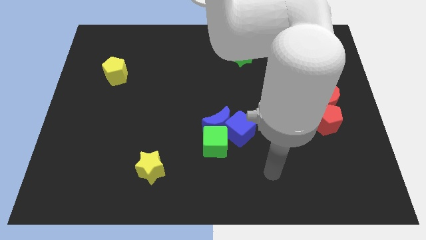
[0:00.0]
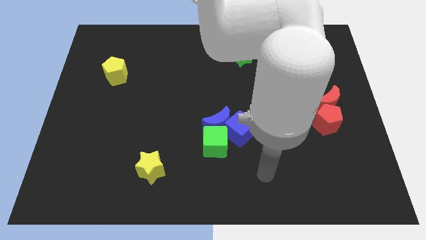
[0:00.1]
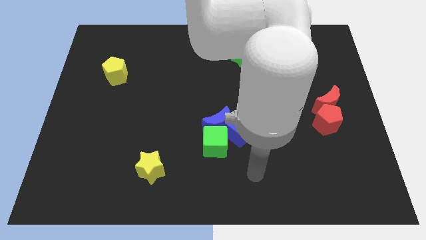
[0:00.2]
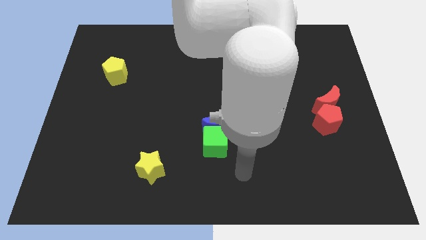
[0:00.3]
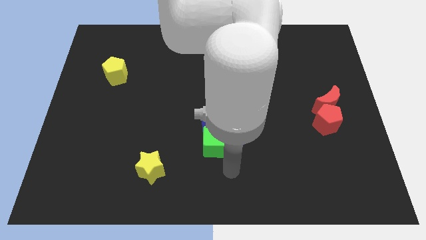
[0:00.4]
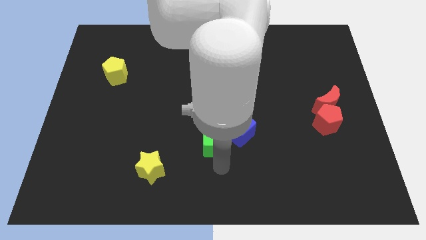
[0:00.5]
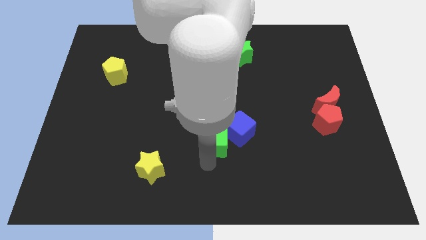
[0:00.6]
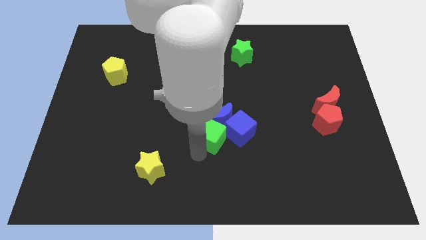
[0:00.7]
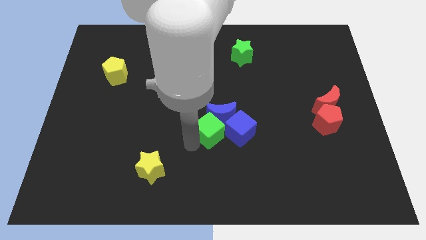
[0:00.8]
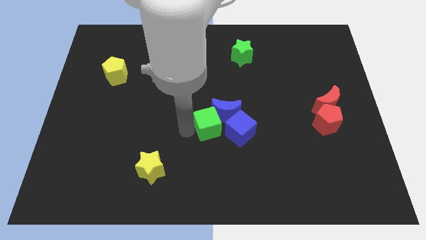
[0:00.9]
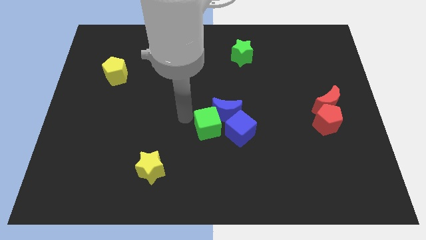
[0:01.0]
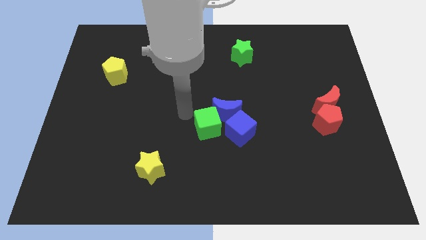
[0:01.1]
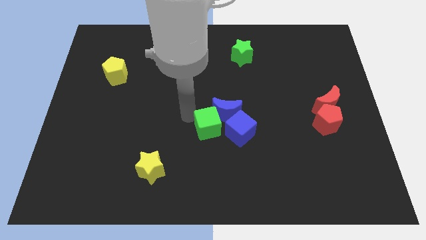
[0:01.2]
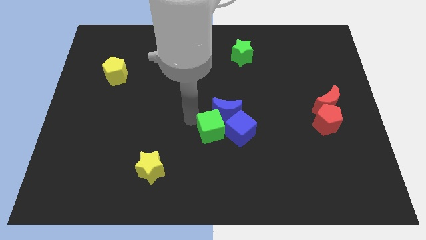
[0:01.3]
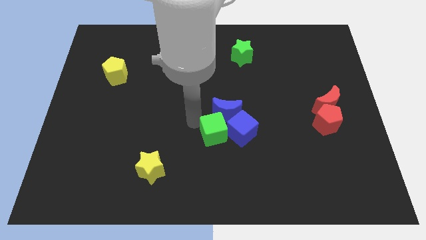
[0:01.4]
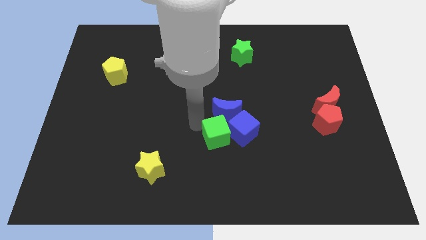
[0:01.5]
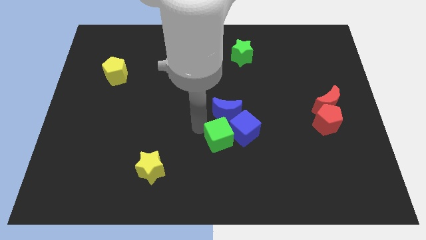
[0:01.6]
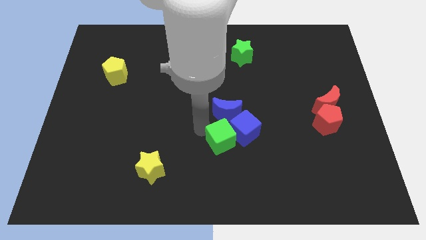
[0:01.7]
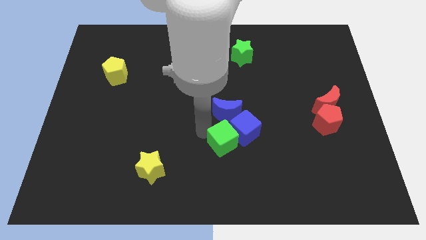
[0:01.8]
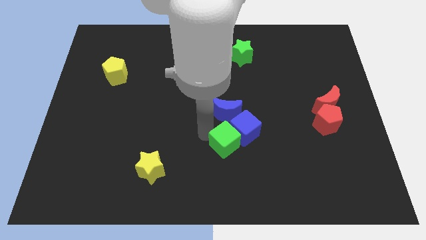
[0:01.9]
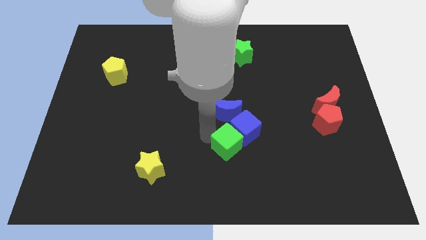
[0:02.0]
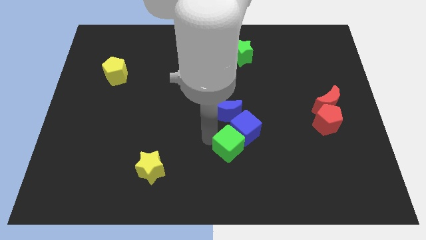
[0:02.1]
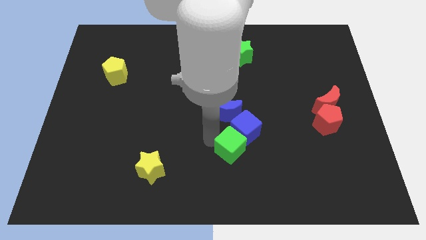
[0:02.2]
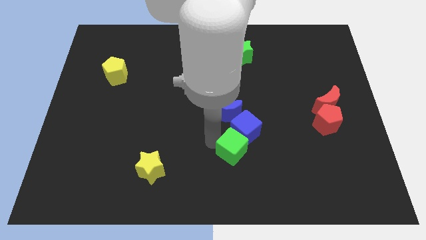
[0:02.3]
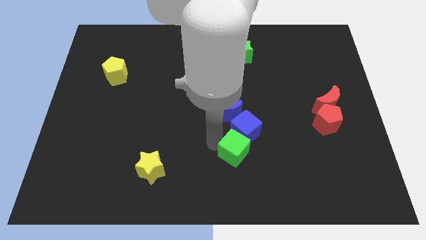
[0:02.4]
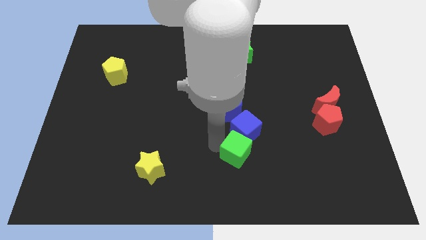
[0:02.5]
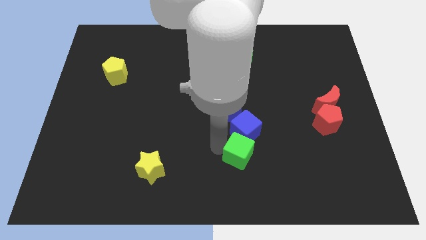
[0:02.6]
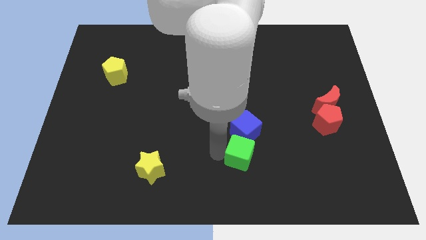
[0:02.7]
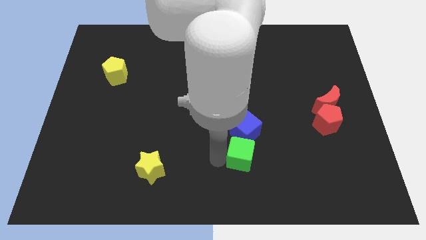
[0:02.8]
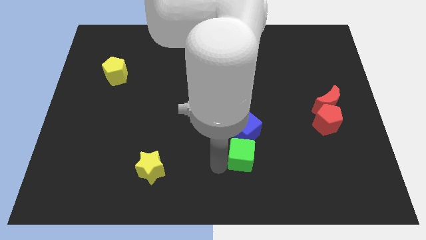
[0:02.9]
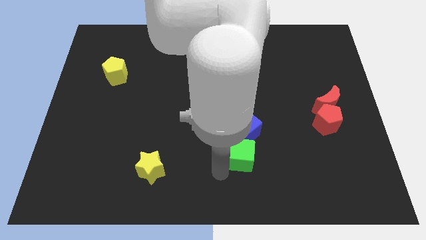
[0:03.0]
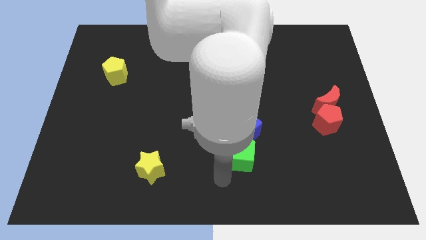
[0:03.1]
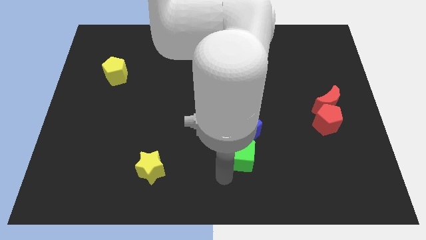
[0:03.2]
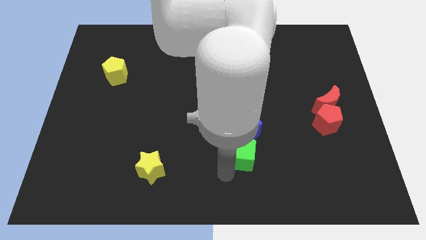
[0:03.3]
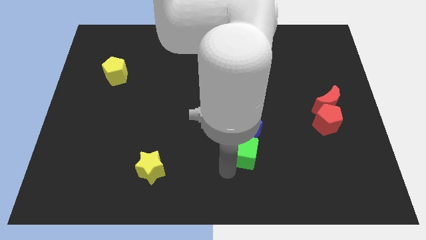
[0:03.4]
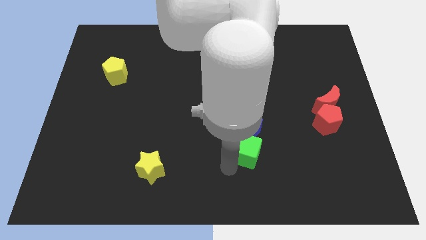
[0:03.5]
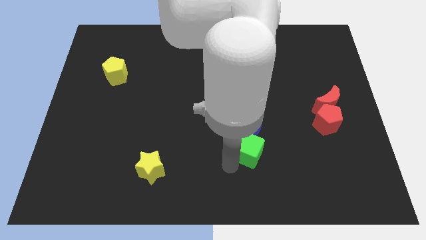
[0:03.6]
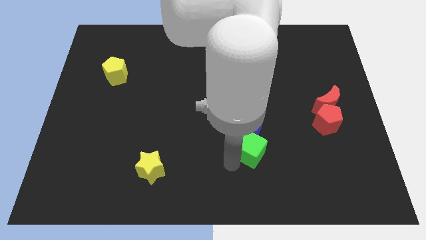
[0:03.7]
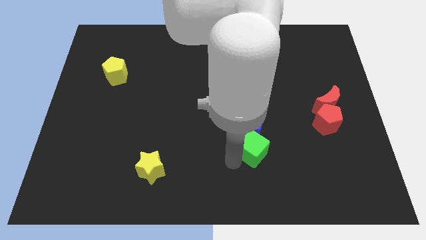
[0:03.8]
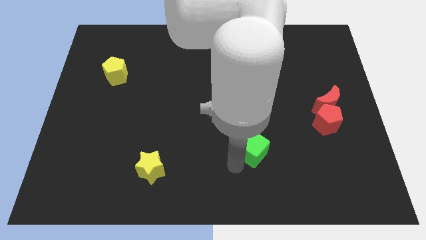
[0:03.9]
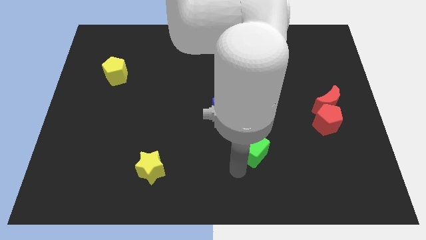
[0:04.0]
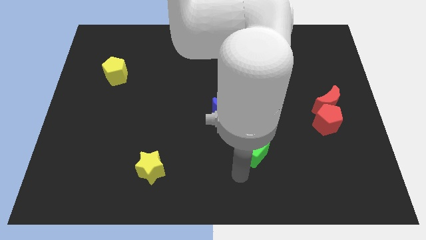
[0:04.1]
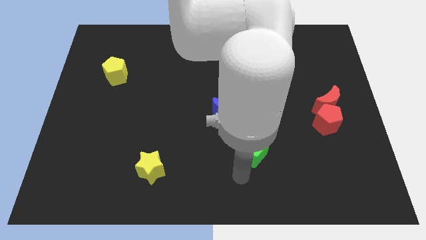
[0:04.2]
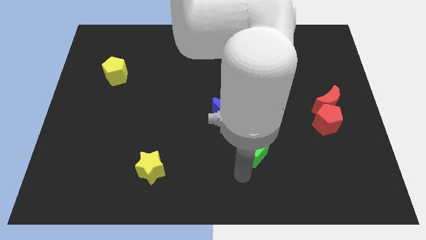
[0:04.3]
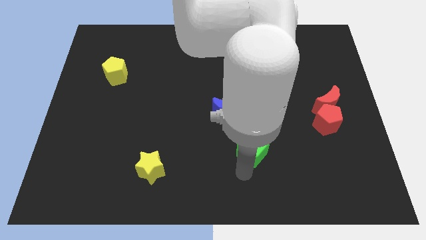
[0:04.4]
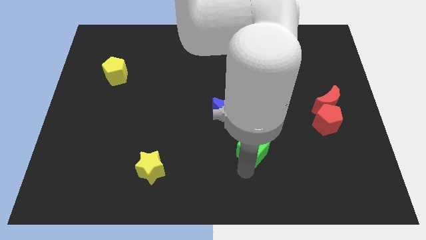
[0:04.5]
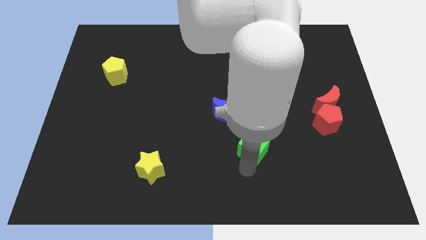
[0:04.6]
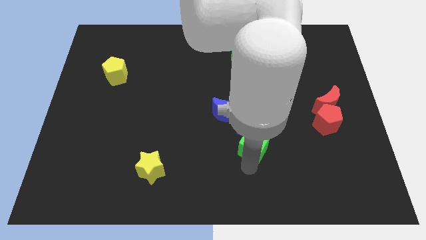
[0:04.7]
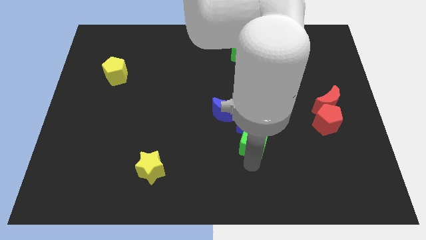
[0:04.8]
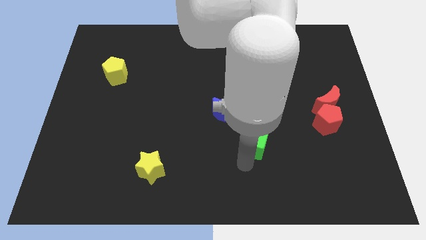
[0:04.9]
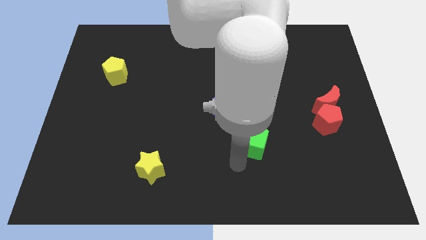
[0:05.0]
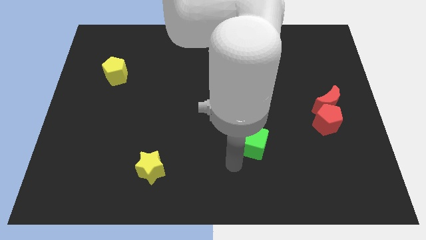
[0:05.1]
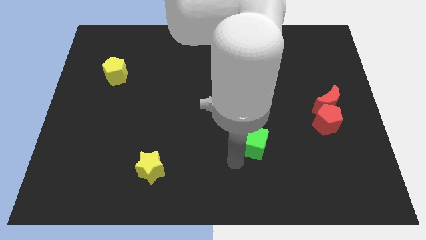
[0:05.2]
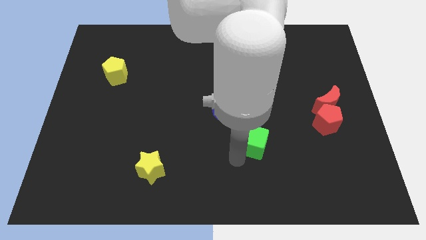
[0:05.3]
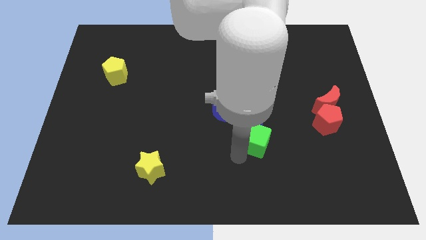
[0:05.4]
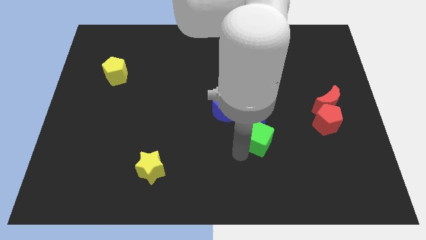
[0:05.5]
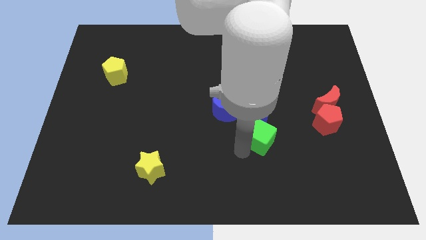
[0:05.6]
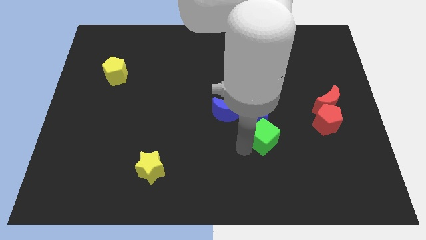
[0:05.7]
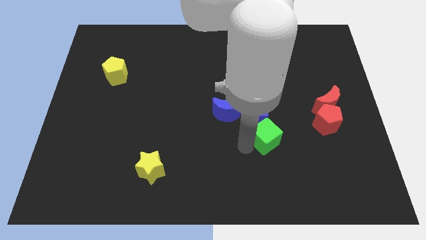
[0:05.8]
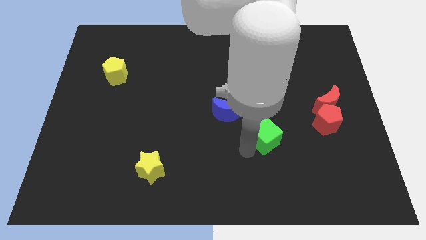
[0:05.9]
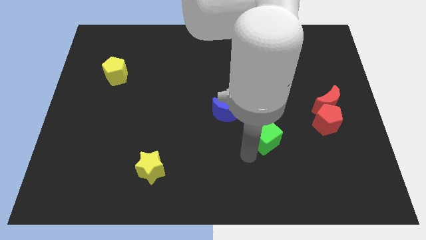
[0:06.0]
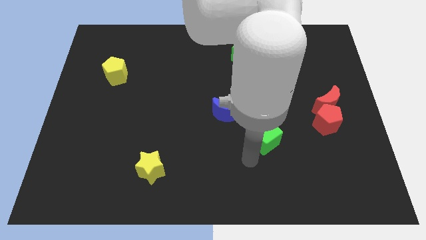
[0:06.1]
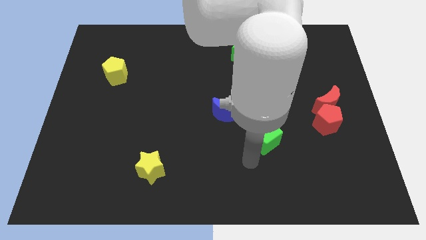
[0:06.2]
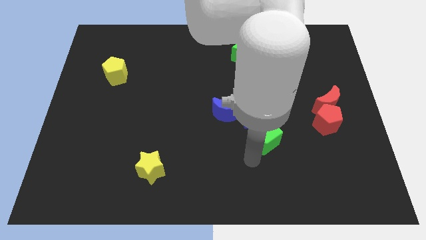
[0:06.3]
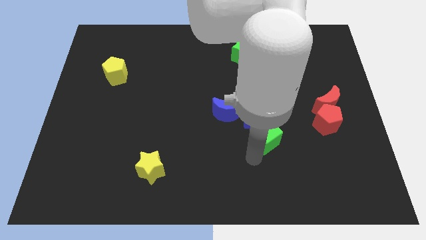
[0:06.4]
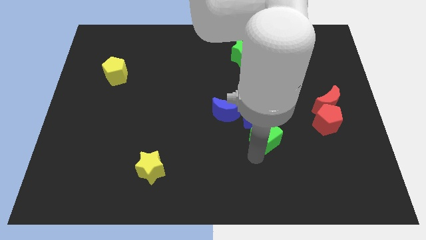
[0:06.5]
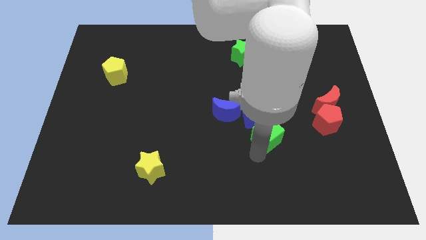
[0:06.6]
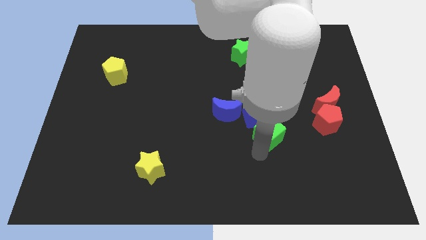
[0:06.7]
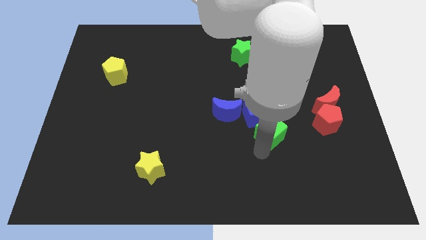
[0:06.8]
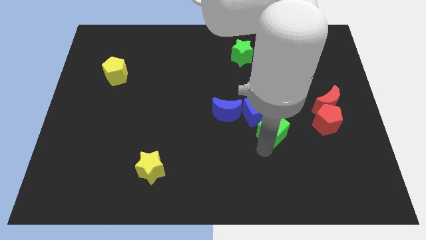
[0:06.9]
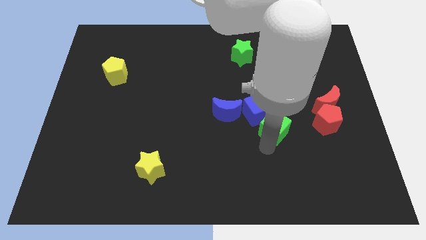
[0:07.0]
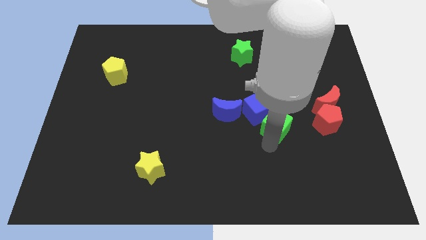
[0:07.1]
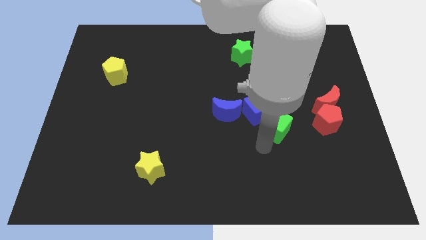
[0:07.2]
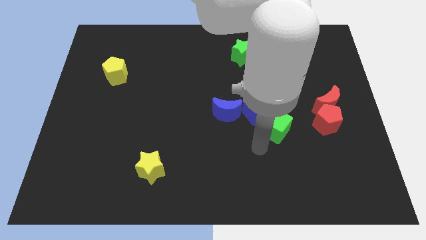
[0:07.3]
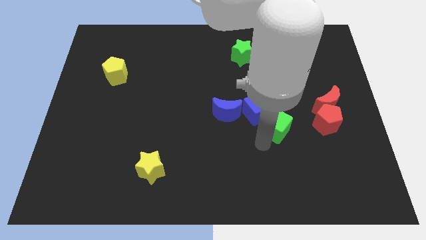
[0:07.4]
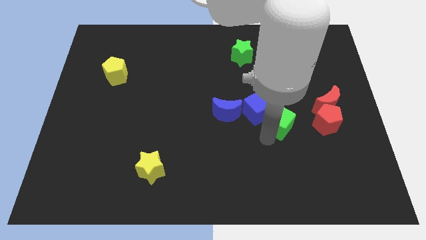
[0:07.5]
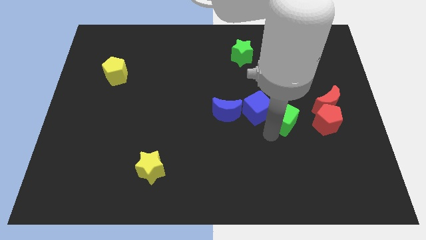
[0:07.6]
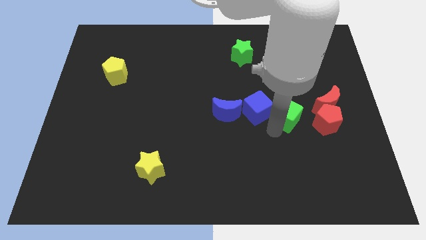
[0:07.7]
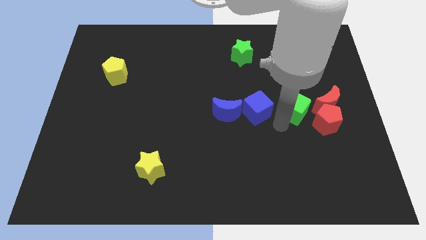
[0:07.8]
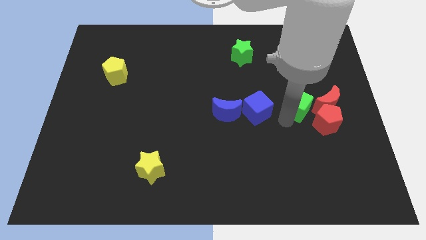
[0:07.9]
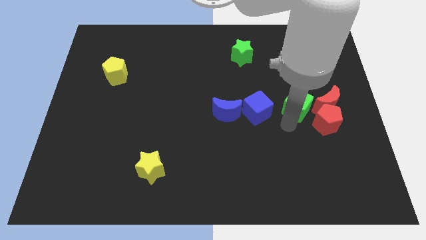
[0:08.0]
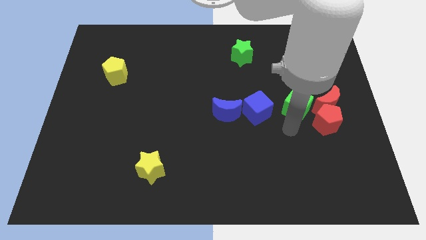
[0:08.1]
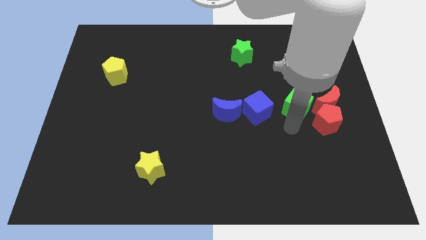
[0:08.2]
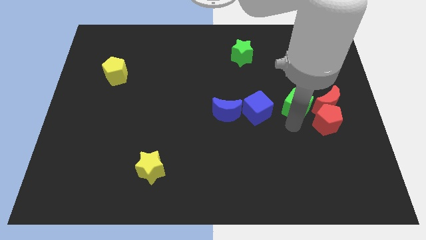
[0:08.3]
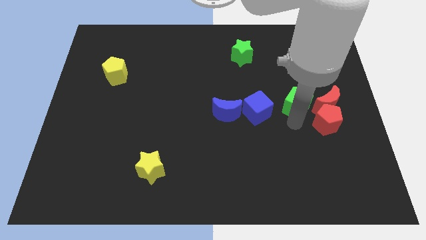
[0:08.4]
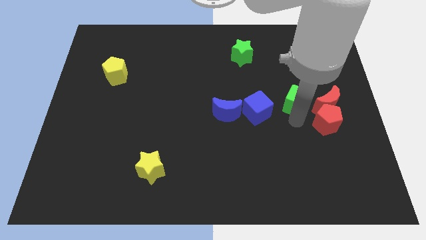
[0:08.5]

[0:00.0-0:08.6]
put the green cube diagonally up and to the left of the red moon
